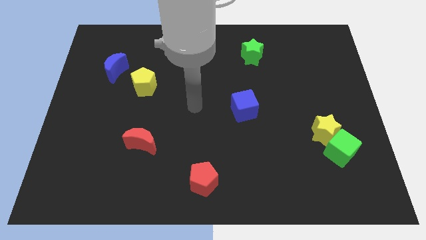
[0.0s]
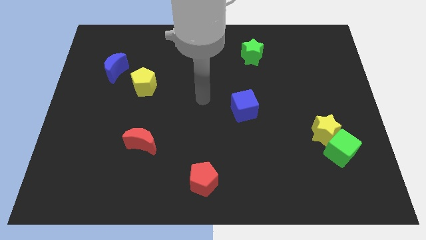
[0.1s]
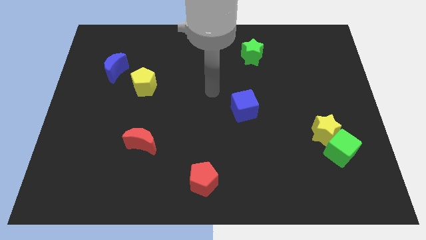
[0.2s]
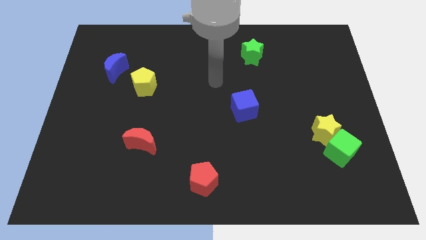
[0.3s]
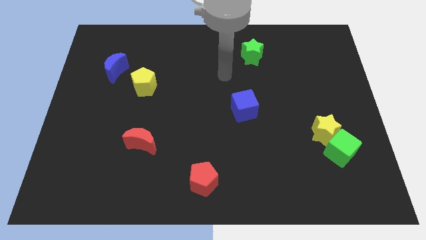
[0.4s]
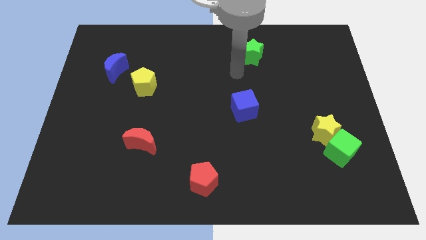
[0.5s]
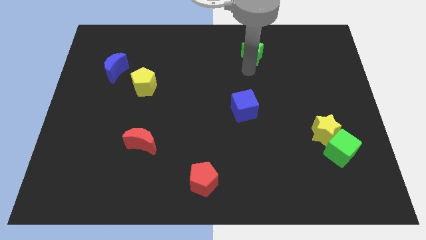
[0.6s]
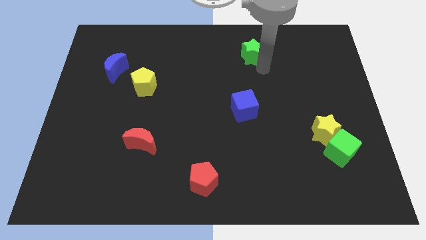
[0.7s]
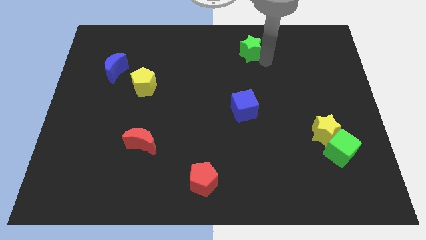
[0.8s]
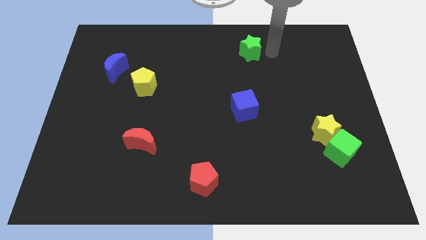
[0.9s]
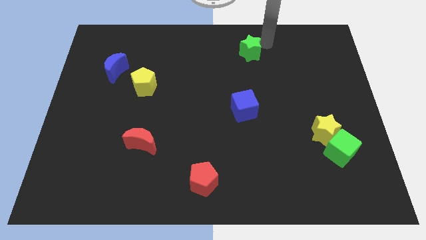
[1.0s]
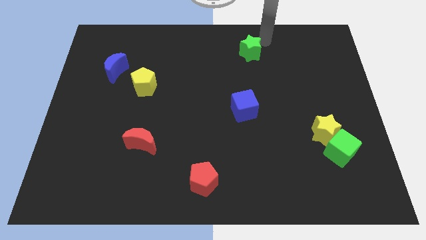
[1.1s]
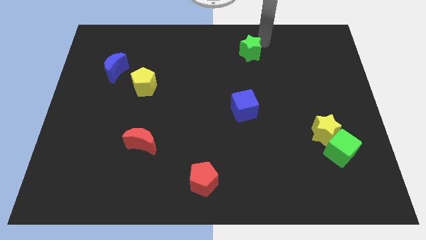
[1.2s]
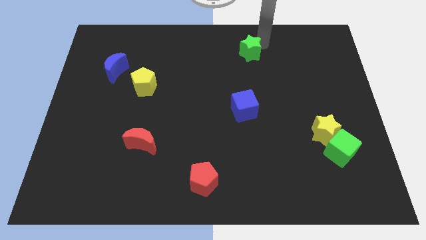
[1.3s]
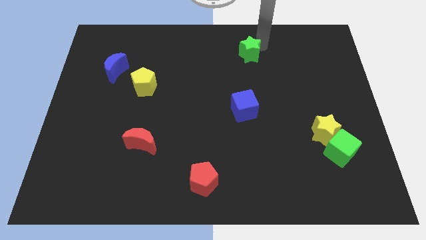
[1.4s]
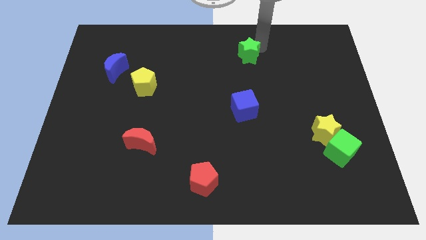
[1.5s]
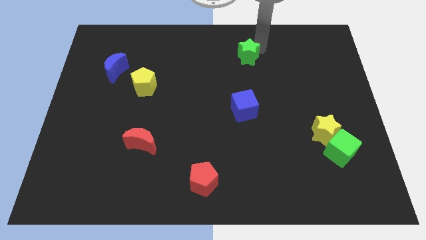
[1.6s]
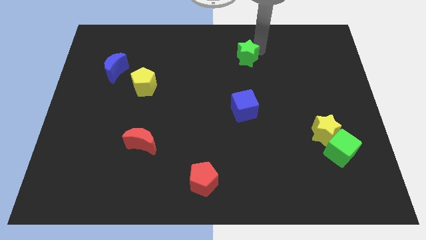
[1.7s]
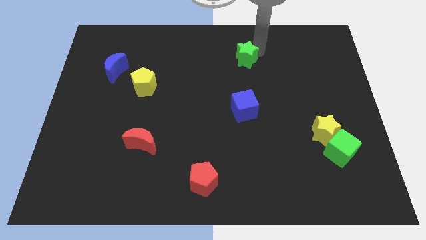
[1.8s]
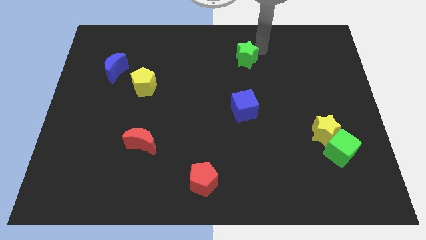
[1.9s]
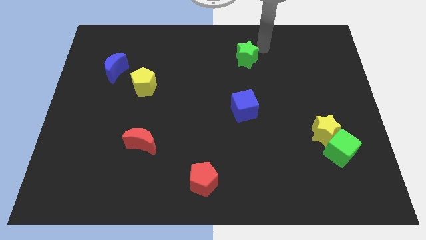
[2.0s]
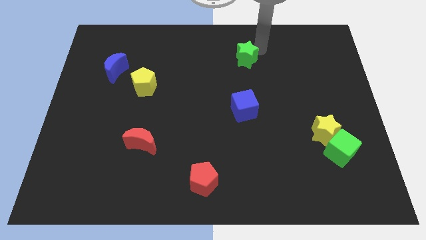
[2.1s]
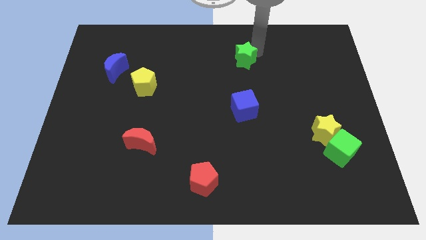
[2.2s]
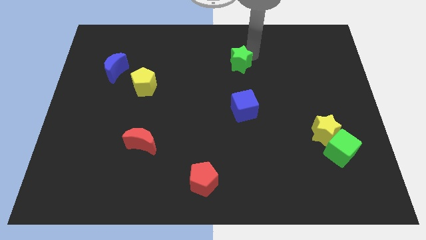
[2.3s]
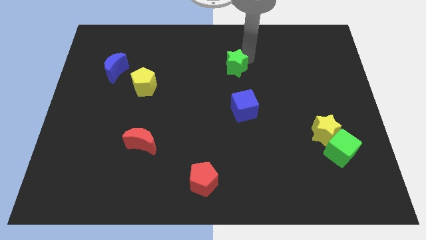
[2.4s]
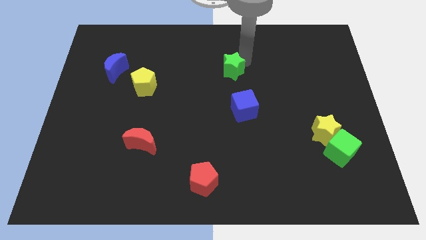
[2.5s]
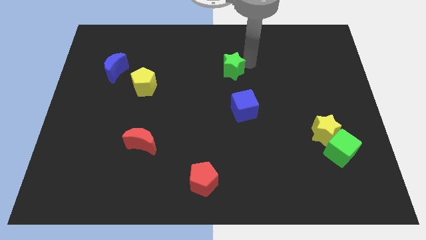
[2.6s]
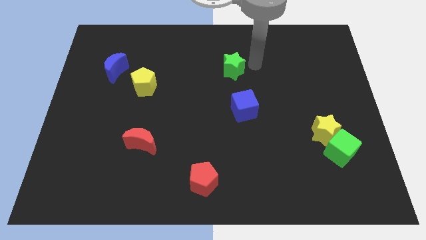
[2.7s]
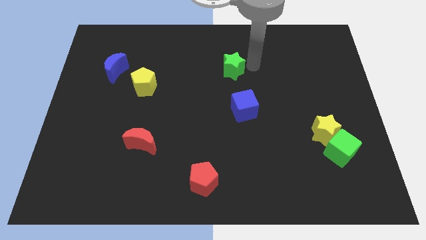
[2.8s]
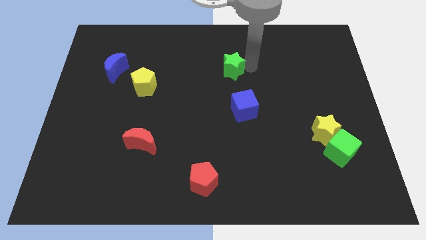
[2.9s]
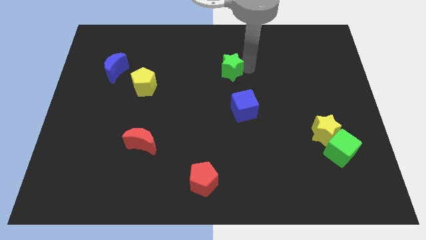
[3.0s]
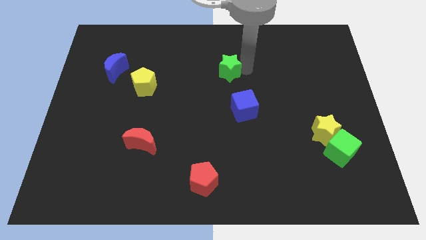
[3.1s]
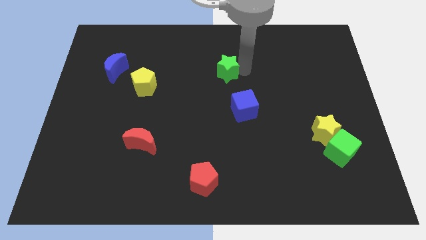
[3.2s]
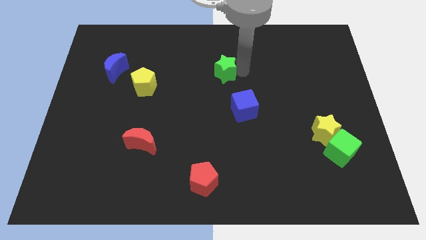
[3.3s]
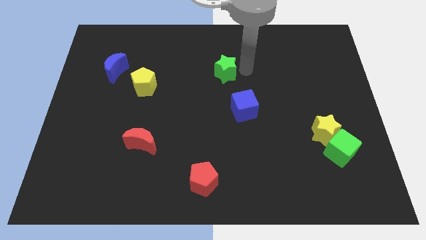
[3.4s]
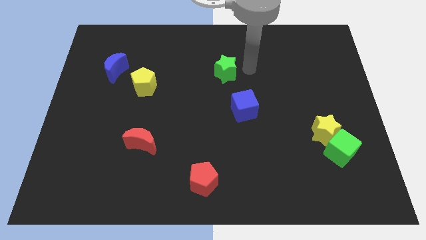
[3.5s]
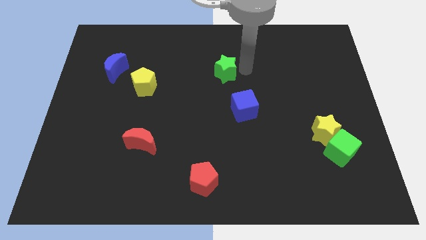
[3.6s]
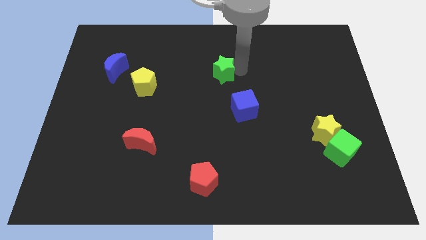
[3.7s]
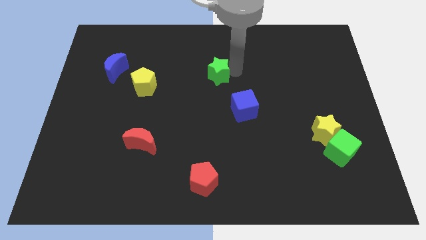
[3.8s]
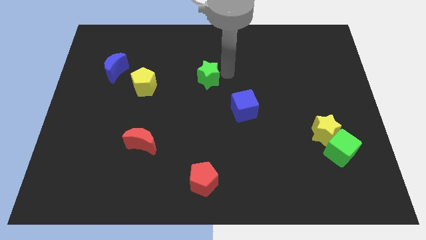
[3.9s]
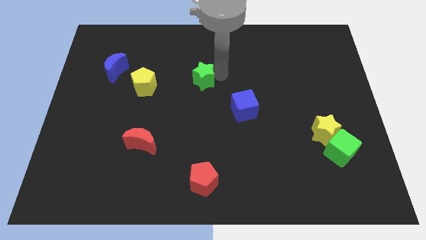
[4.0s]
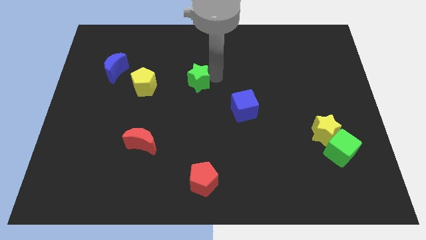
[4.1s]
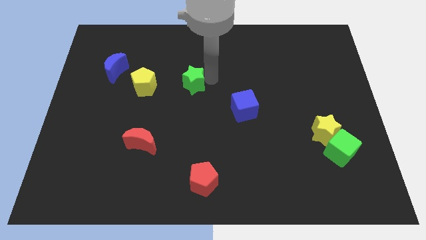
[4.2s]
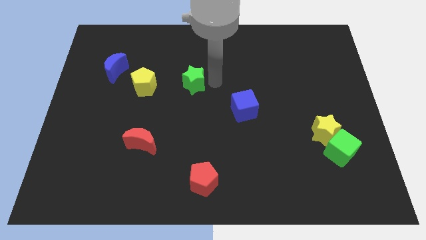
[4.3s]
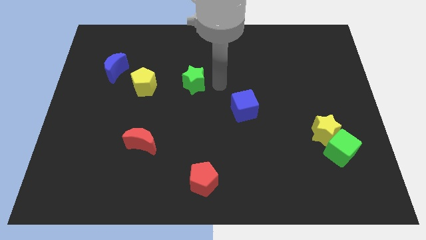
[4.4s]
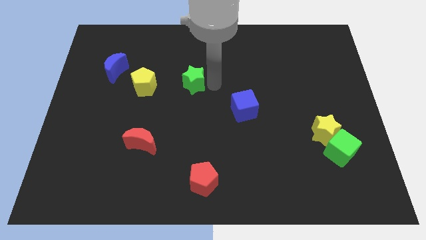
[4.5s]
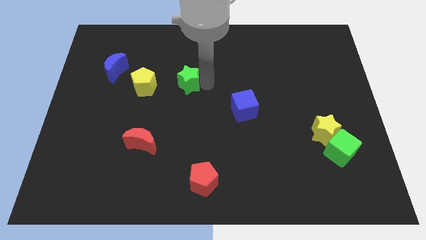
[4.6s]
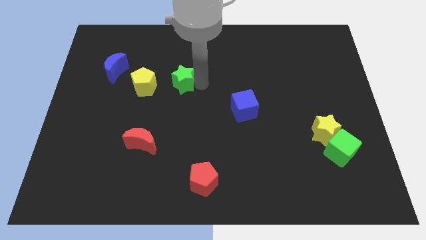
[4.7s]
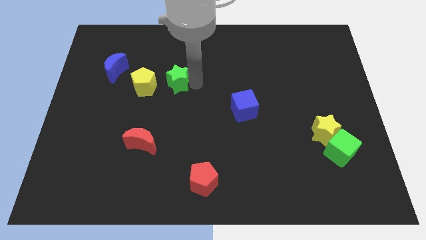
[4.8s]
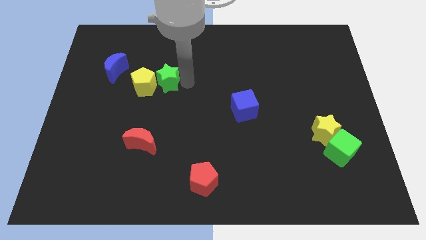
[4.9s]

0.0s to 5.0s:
put the green star to the yellow pentagon

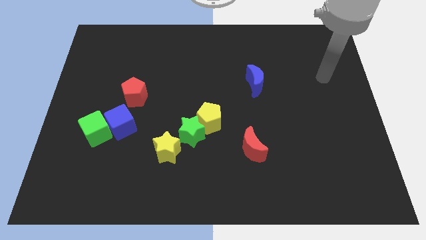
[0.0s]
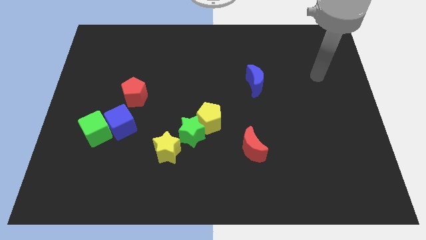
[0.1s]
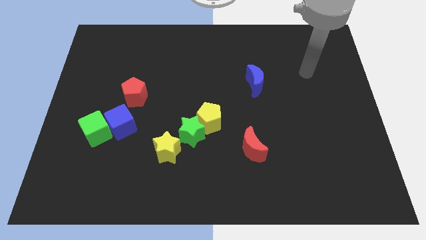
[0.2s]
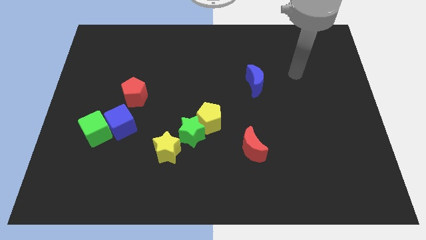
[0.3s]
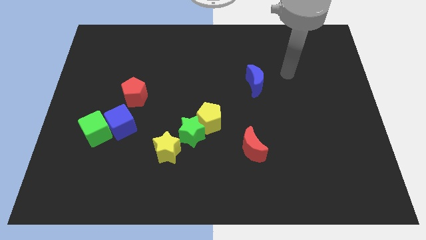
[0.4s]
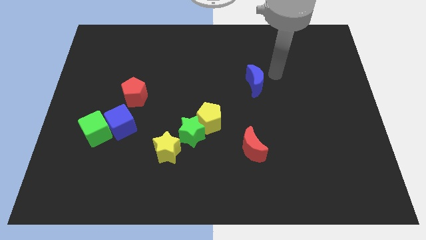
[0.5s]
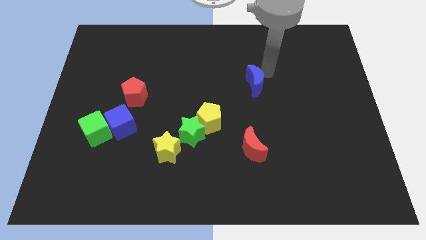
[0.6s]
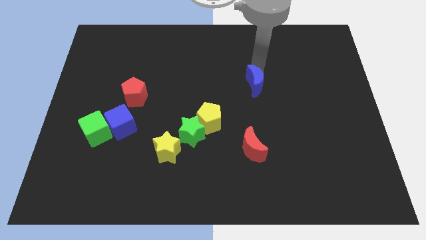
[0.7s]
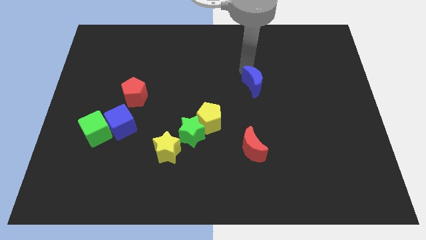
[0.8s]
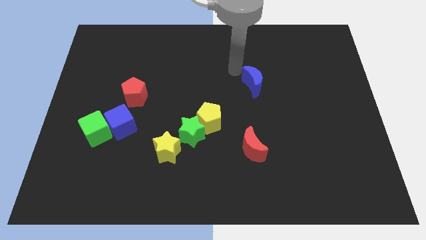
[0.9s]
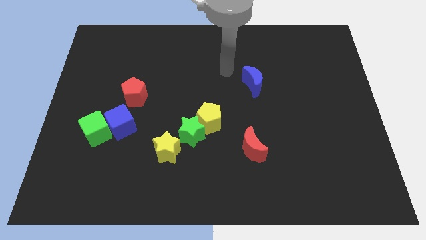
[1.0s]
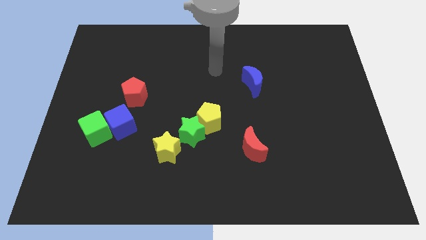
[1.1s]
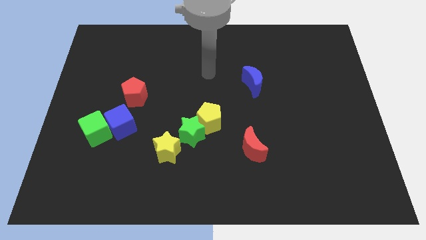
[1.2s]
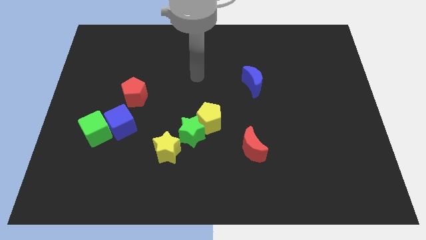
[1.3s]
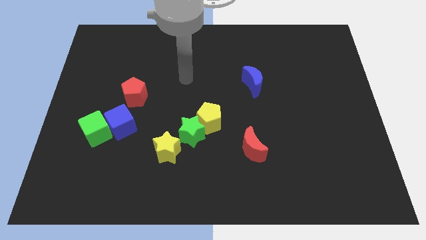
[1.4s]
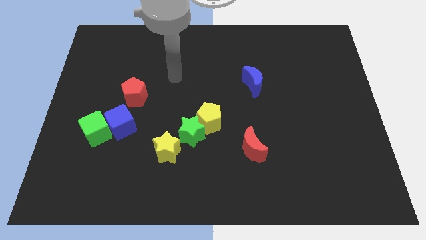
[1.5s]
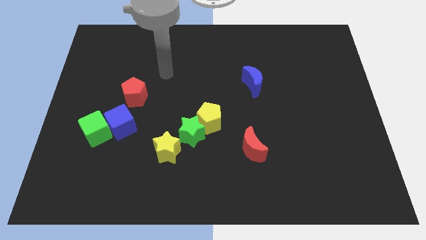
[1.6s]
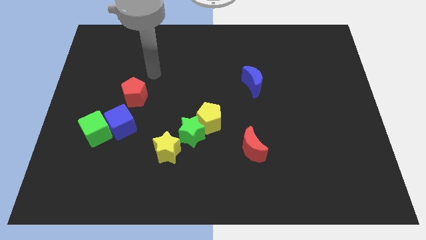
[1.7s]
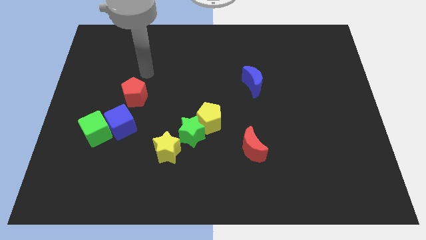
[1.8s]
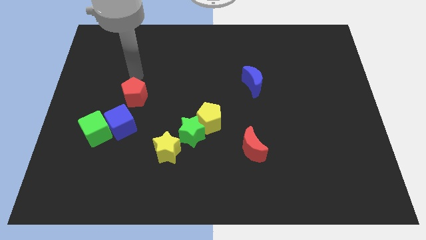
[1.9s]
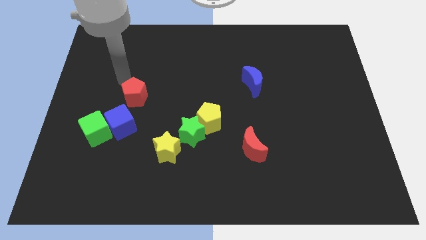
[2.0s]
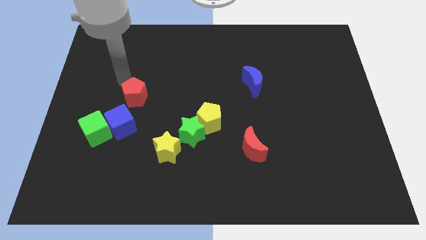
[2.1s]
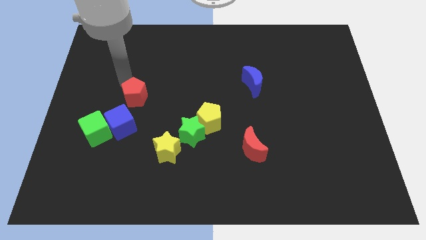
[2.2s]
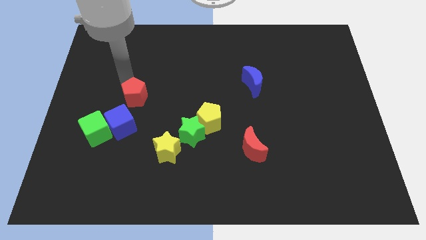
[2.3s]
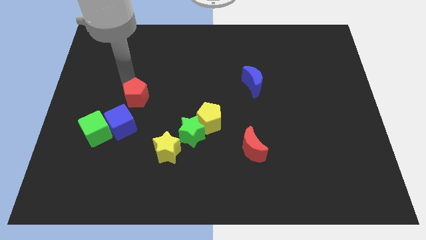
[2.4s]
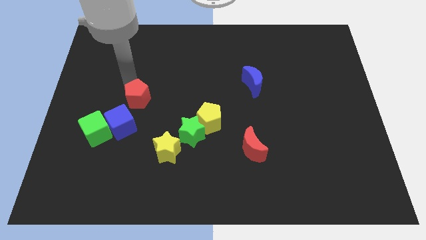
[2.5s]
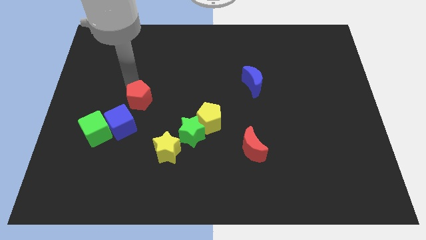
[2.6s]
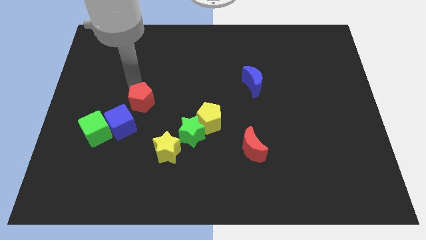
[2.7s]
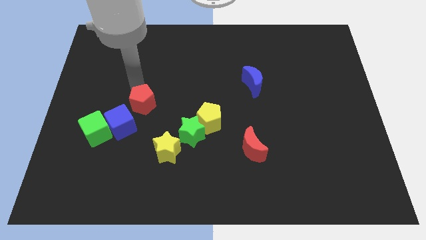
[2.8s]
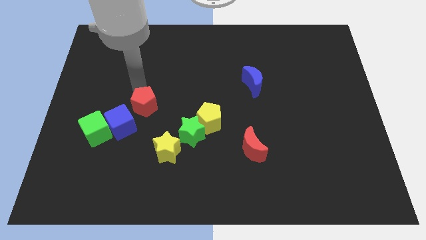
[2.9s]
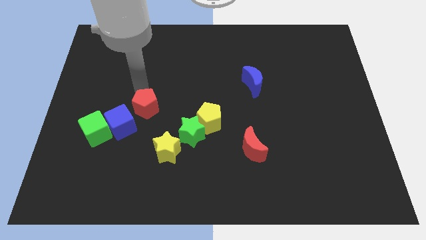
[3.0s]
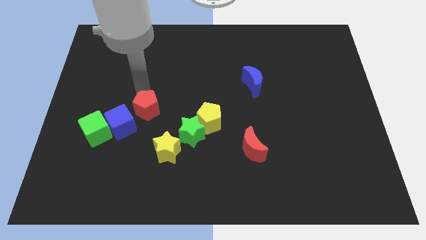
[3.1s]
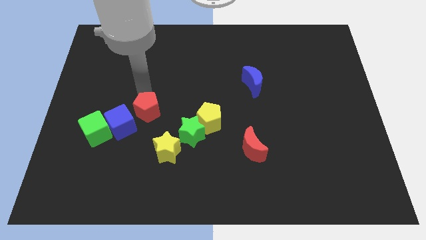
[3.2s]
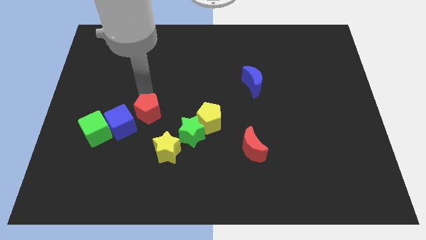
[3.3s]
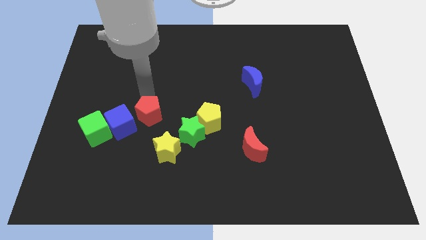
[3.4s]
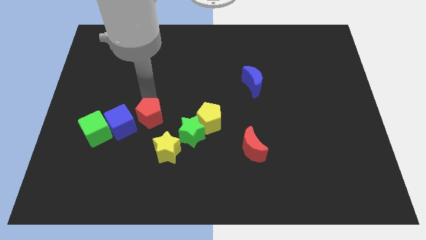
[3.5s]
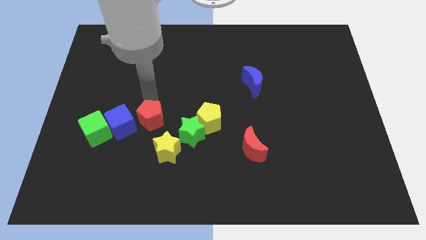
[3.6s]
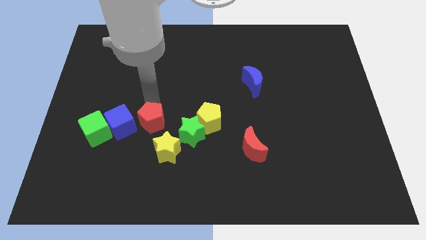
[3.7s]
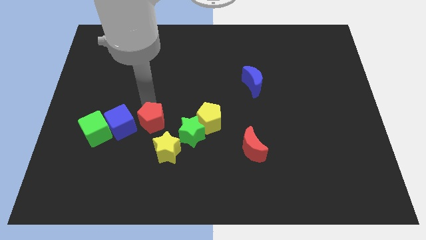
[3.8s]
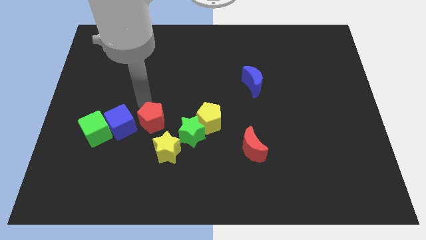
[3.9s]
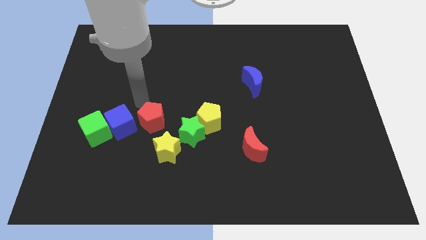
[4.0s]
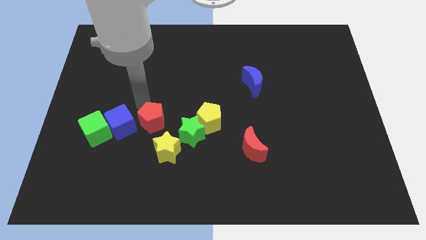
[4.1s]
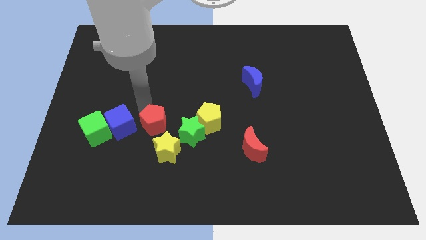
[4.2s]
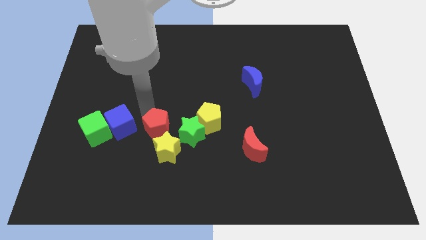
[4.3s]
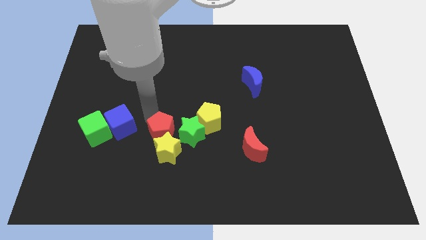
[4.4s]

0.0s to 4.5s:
move the red pentagon next to the yellow star
